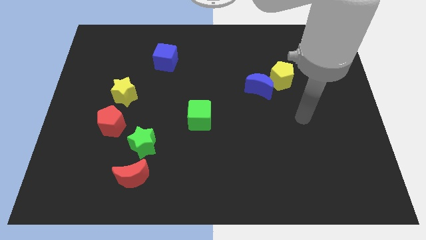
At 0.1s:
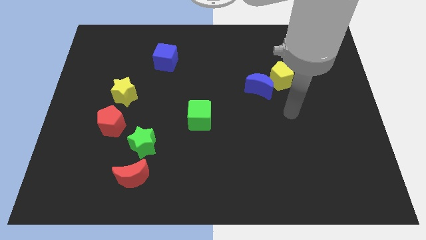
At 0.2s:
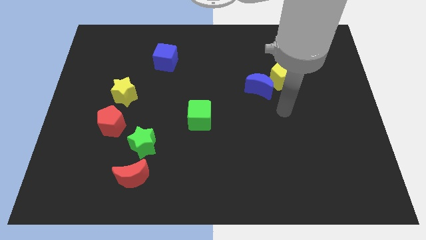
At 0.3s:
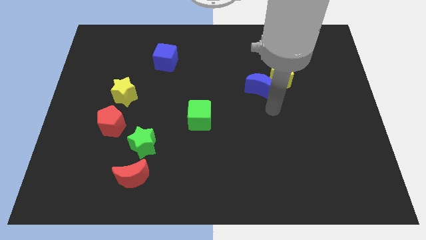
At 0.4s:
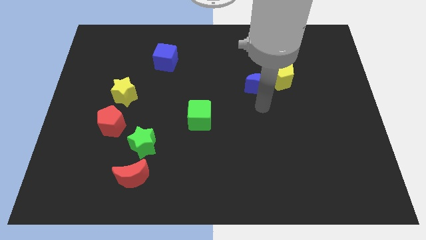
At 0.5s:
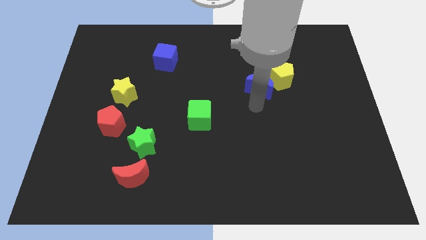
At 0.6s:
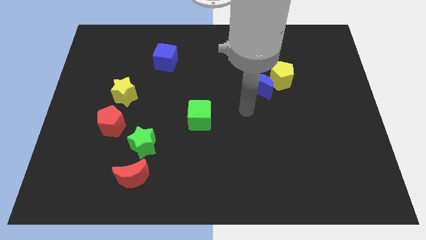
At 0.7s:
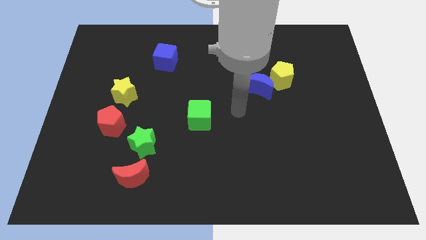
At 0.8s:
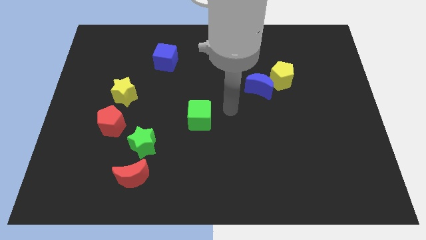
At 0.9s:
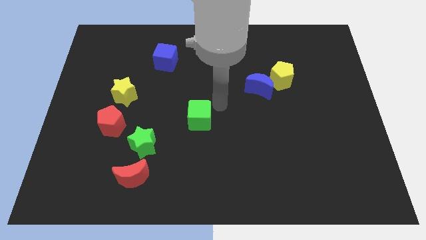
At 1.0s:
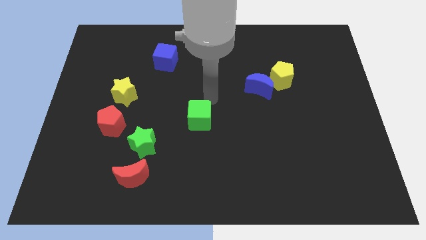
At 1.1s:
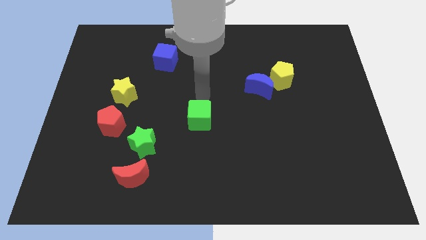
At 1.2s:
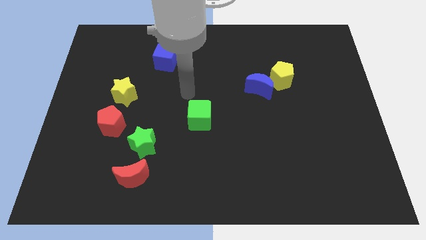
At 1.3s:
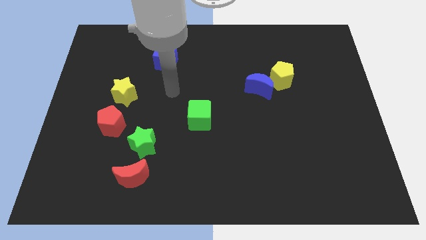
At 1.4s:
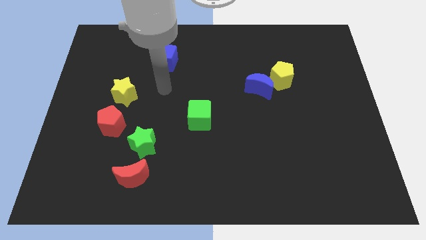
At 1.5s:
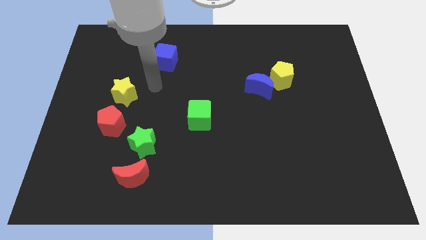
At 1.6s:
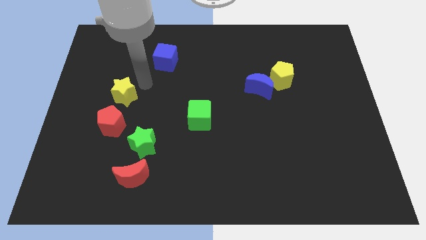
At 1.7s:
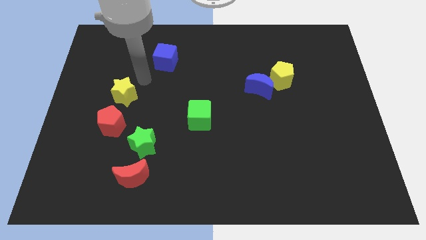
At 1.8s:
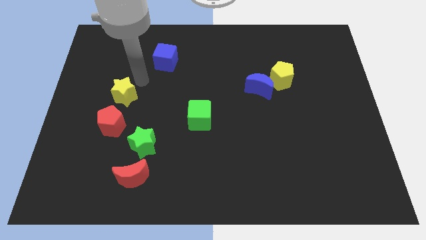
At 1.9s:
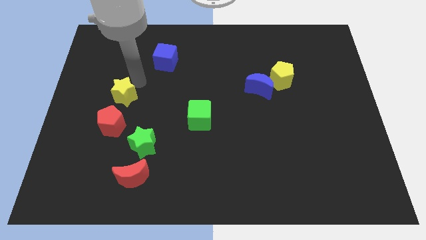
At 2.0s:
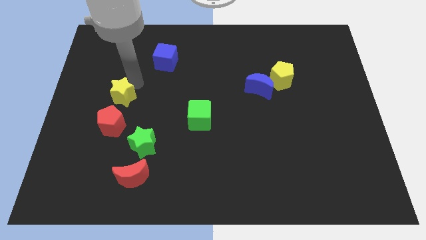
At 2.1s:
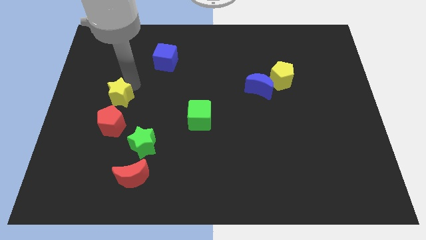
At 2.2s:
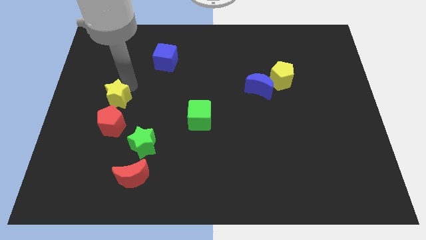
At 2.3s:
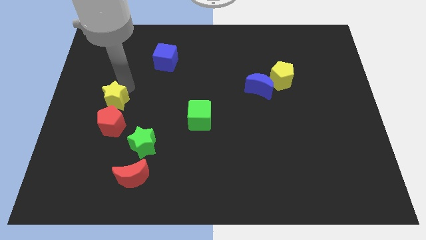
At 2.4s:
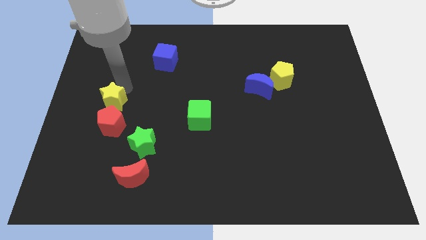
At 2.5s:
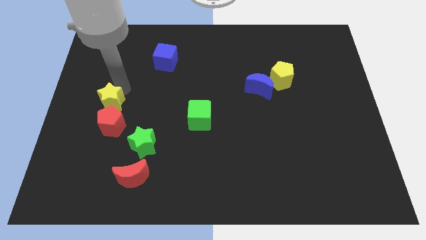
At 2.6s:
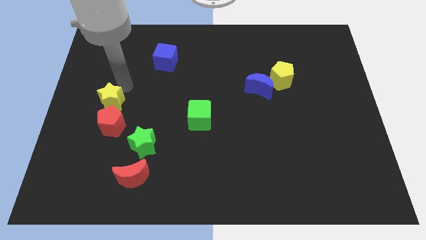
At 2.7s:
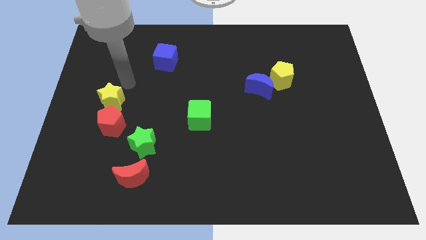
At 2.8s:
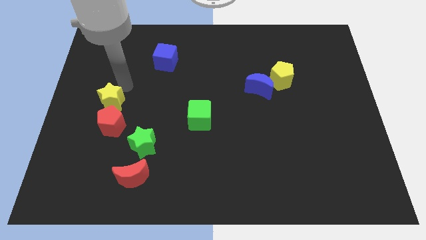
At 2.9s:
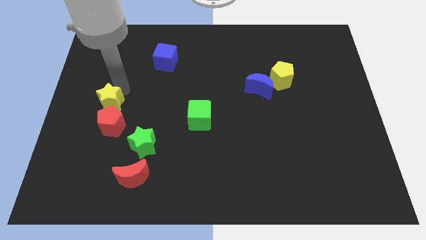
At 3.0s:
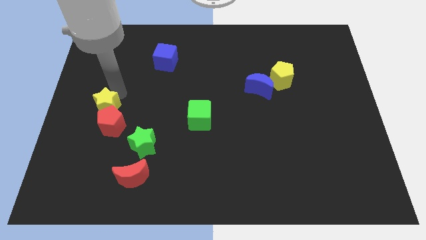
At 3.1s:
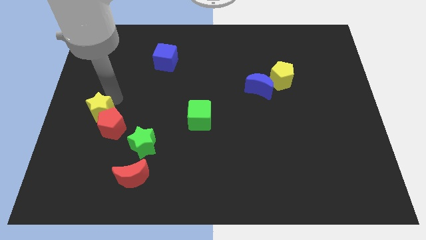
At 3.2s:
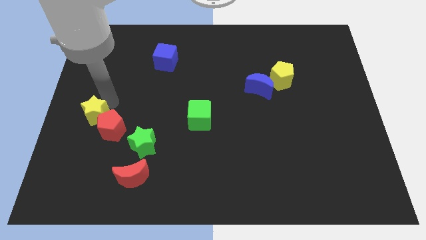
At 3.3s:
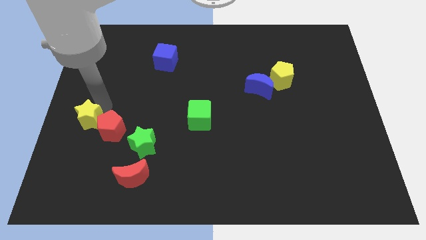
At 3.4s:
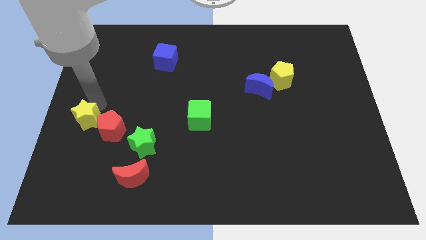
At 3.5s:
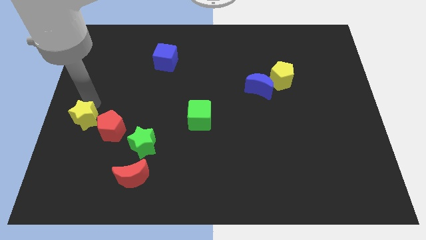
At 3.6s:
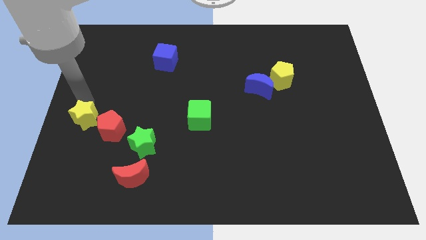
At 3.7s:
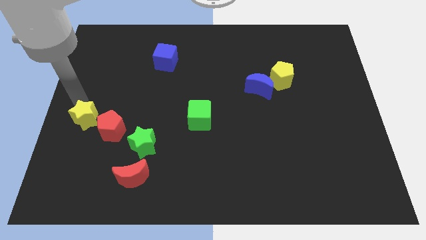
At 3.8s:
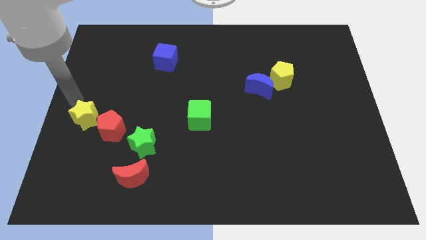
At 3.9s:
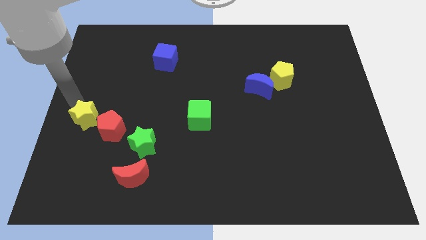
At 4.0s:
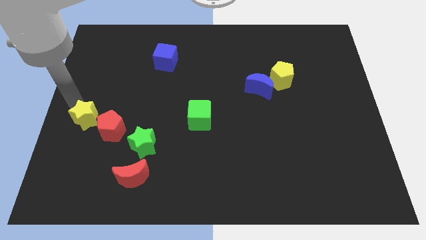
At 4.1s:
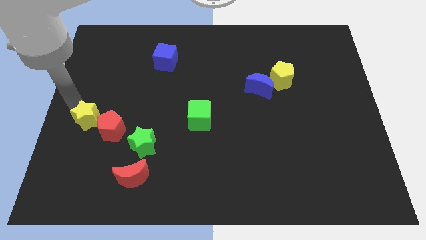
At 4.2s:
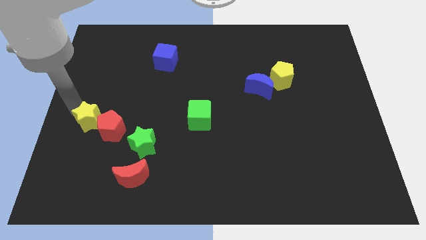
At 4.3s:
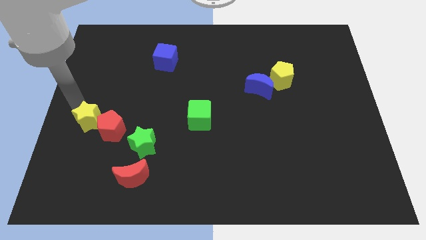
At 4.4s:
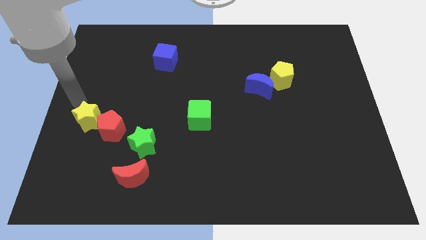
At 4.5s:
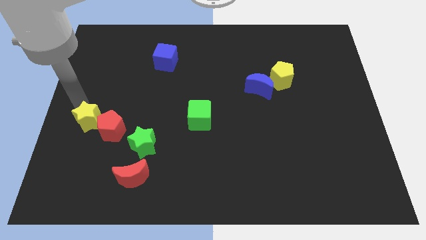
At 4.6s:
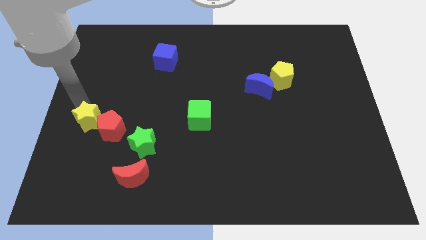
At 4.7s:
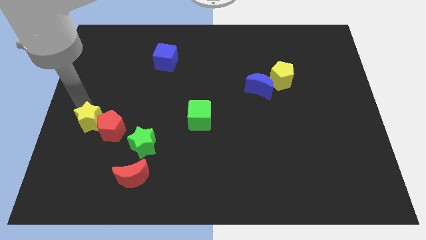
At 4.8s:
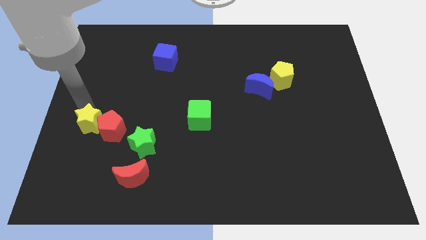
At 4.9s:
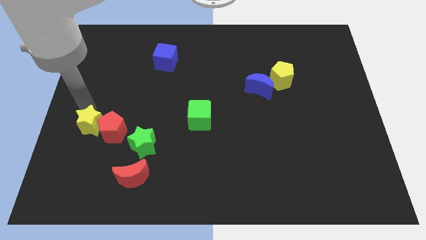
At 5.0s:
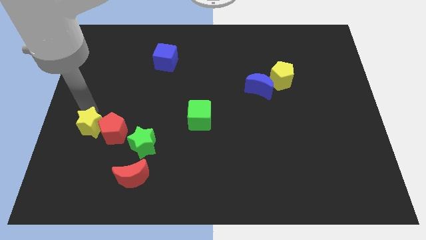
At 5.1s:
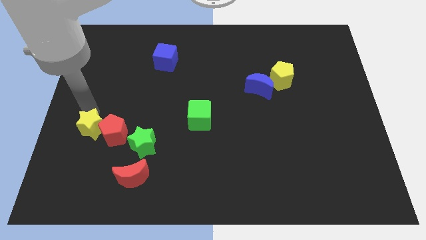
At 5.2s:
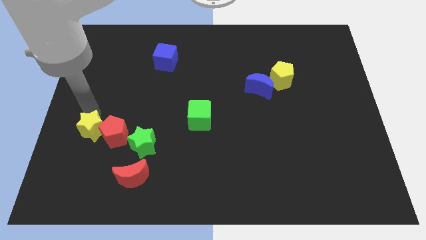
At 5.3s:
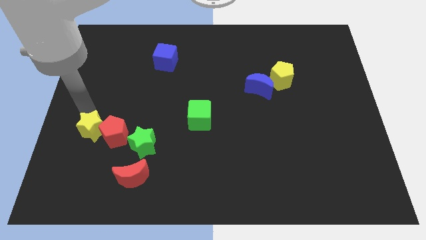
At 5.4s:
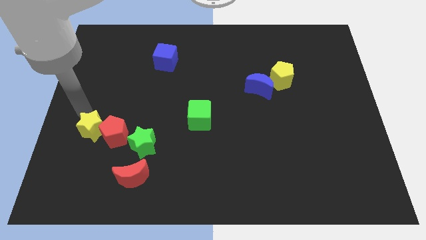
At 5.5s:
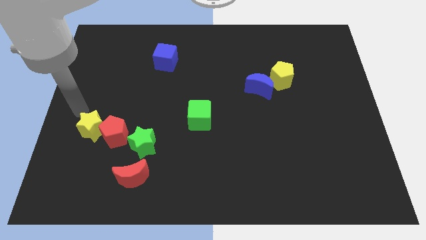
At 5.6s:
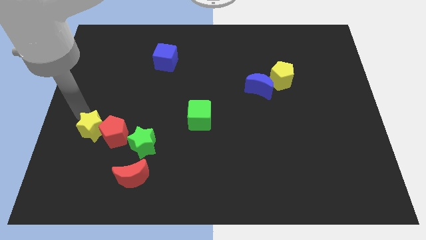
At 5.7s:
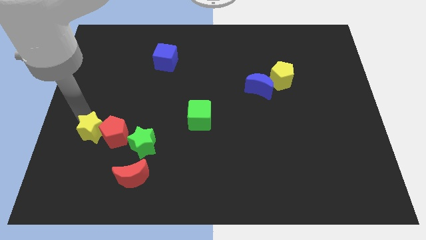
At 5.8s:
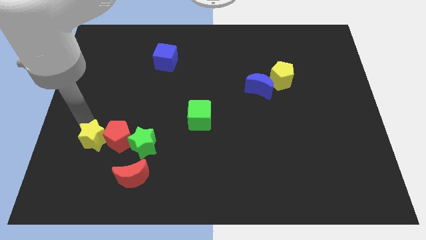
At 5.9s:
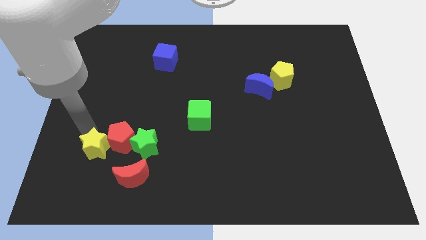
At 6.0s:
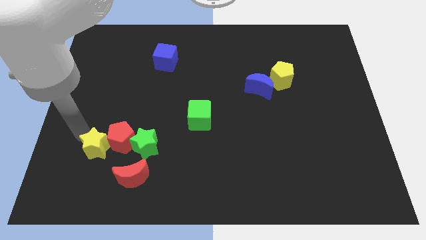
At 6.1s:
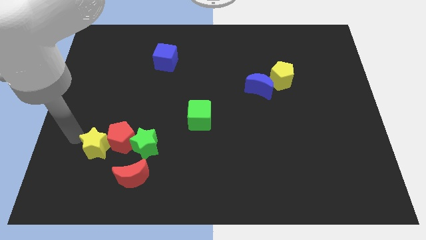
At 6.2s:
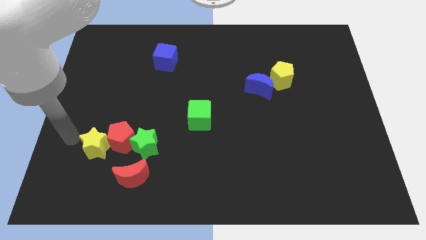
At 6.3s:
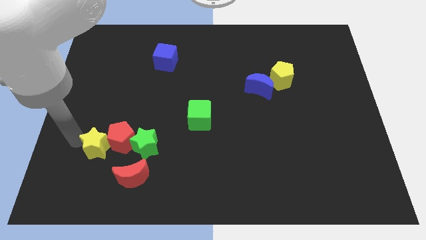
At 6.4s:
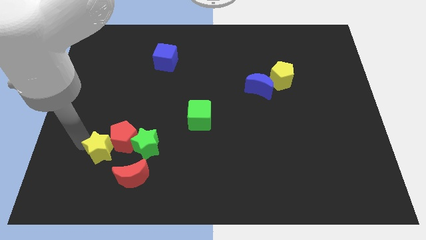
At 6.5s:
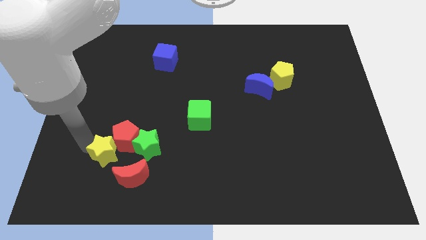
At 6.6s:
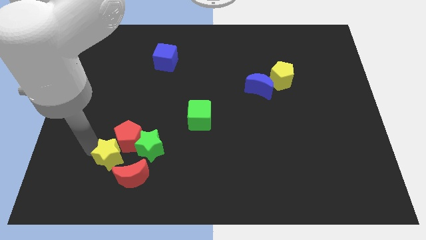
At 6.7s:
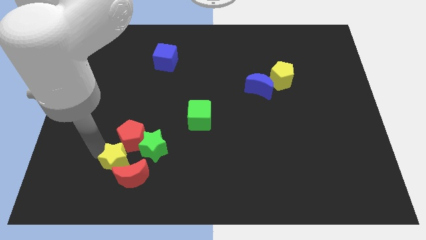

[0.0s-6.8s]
push the yellow star to the red moon

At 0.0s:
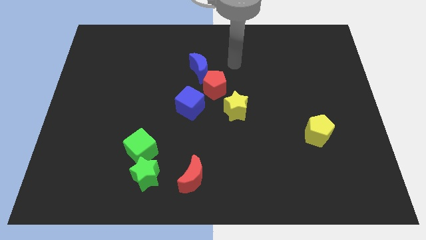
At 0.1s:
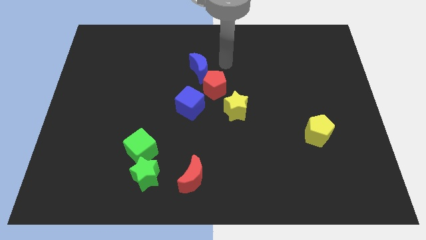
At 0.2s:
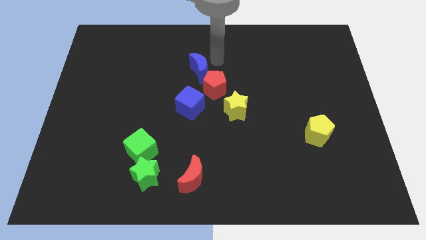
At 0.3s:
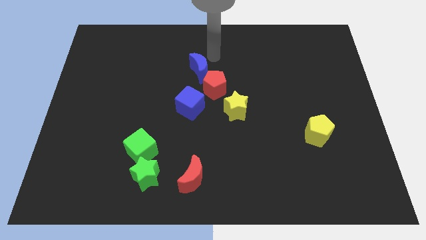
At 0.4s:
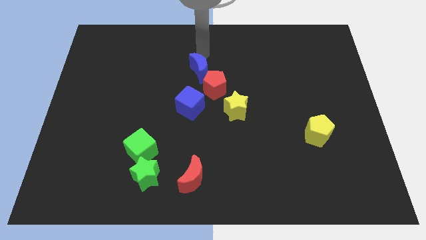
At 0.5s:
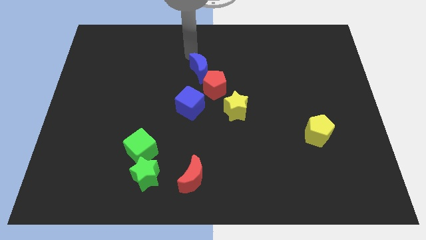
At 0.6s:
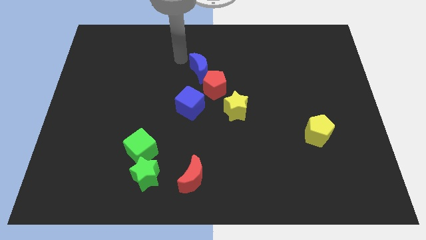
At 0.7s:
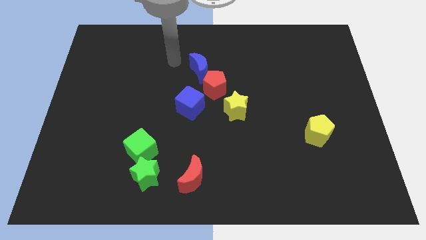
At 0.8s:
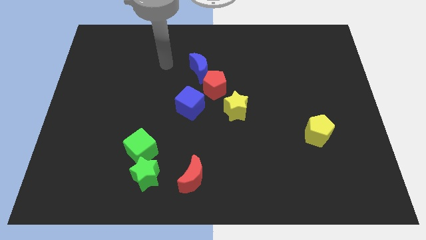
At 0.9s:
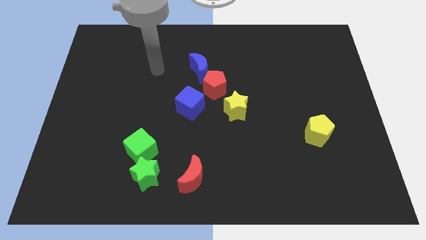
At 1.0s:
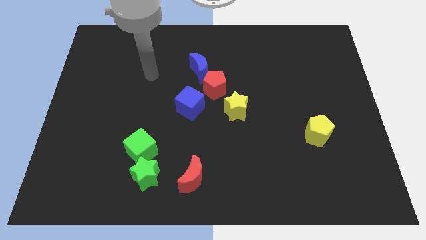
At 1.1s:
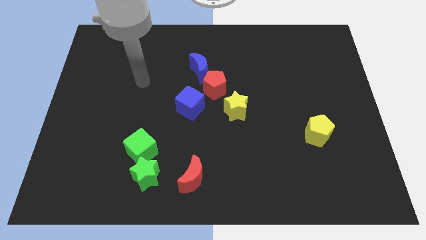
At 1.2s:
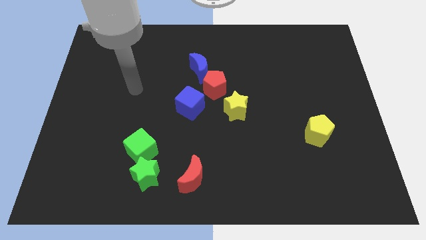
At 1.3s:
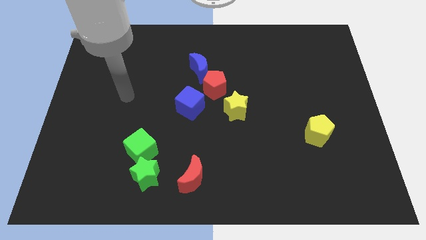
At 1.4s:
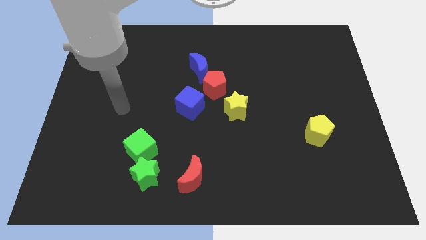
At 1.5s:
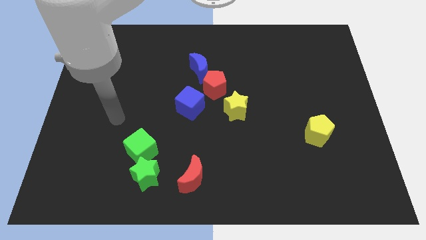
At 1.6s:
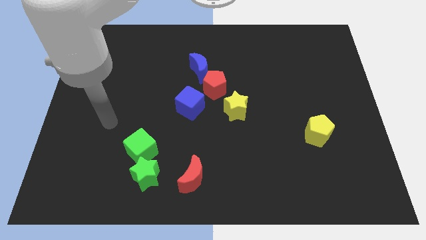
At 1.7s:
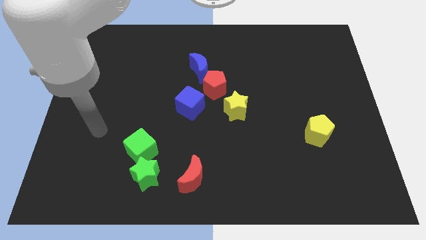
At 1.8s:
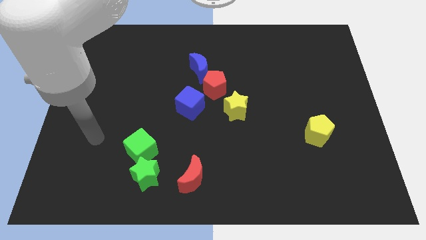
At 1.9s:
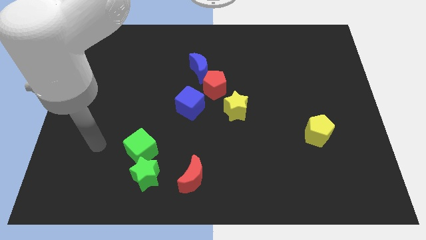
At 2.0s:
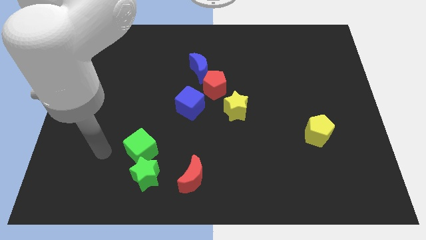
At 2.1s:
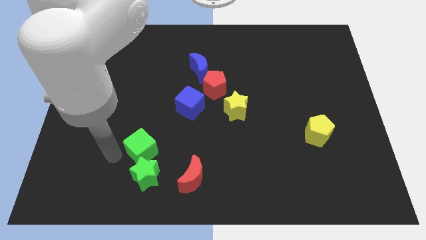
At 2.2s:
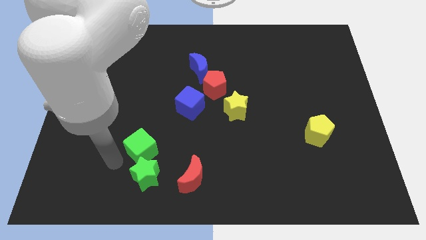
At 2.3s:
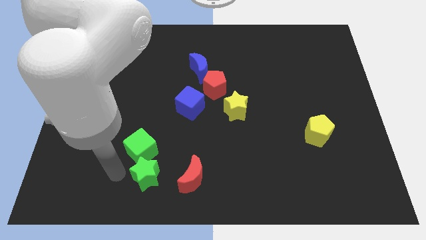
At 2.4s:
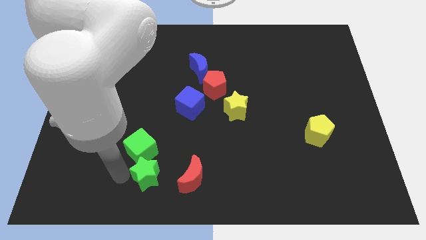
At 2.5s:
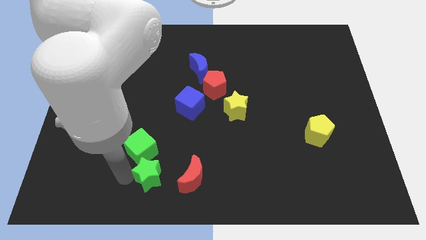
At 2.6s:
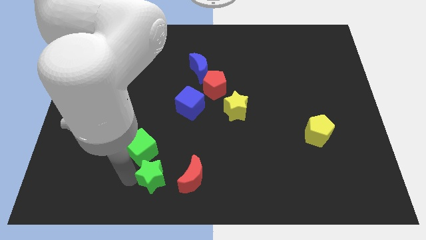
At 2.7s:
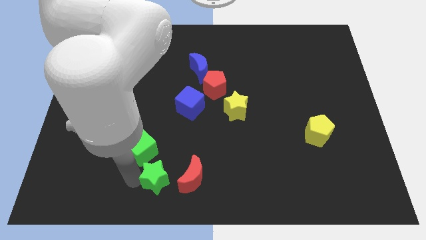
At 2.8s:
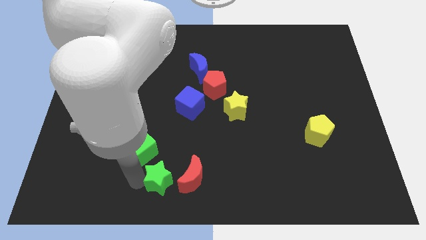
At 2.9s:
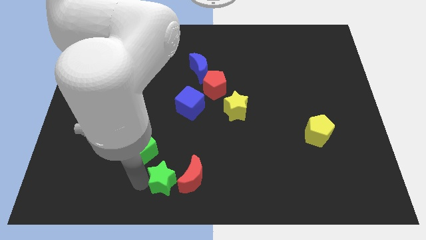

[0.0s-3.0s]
put the green star to the red moon
